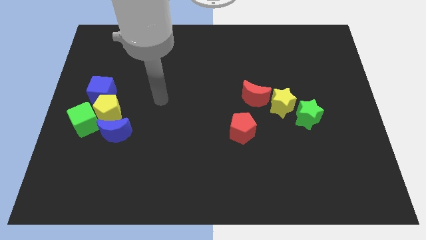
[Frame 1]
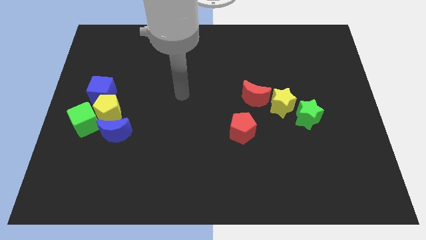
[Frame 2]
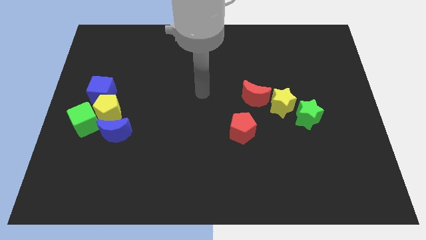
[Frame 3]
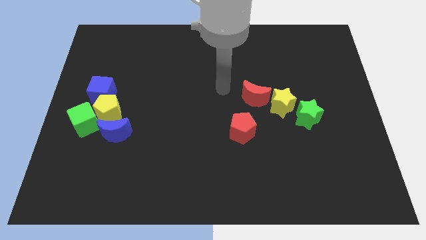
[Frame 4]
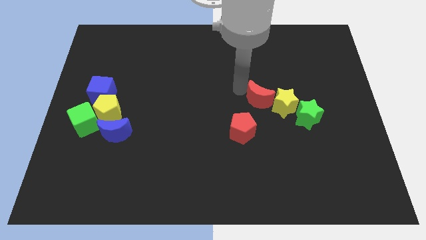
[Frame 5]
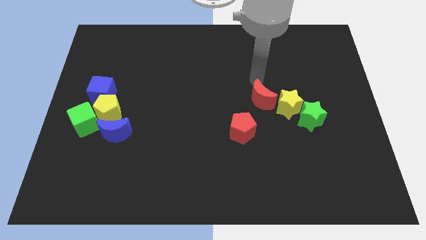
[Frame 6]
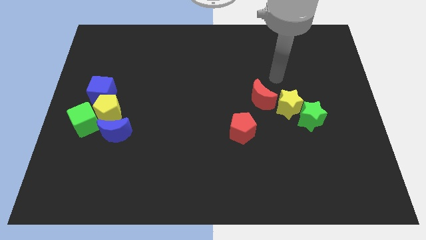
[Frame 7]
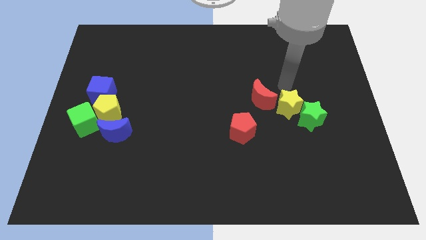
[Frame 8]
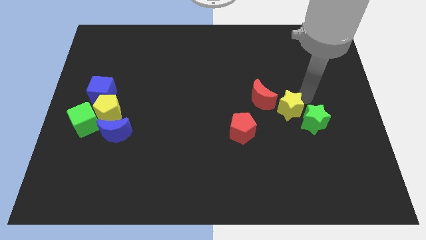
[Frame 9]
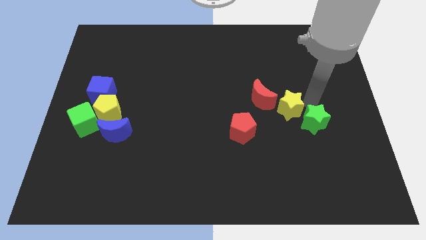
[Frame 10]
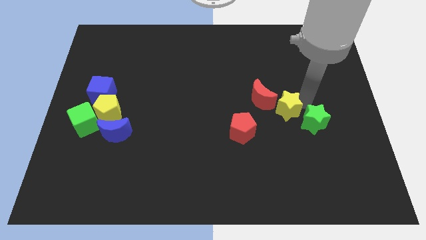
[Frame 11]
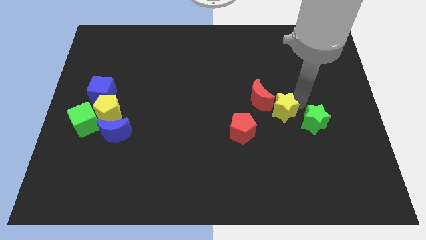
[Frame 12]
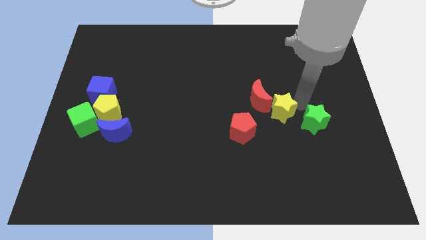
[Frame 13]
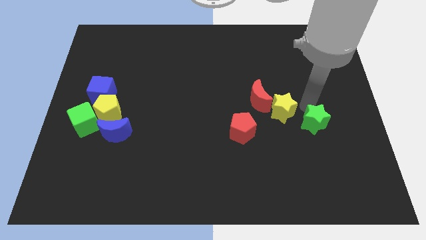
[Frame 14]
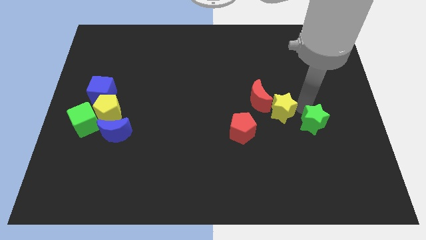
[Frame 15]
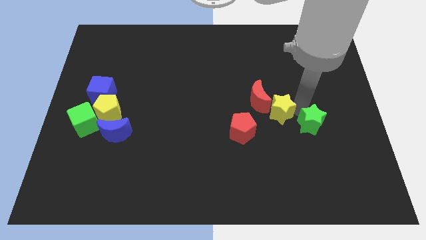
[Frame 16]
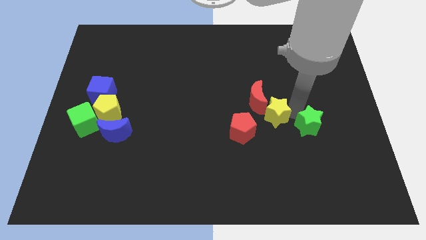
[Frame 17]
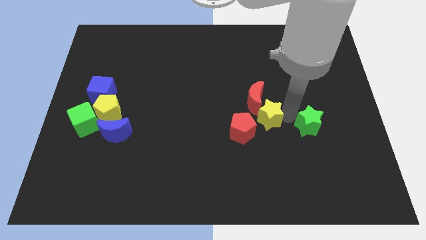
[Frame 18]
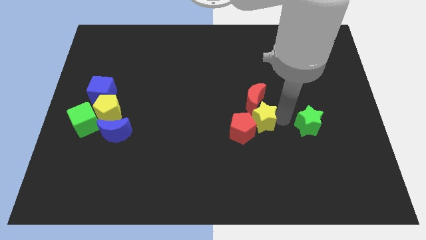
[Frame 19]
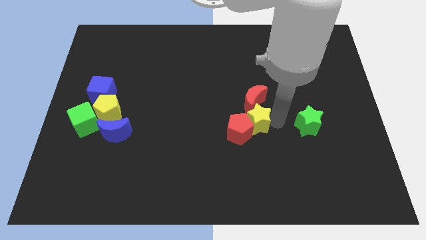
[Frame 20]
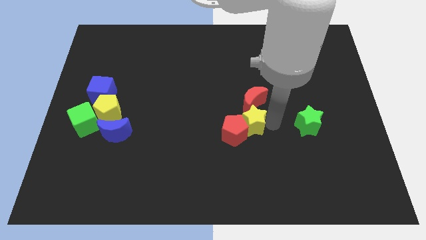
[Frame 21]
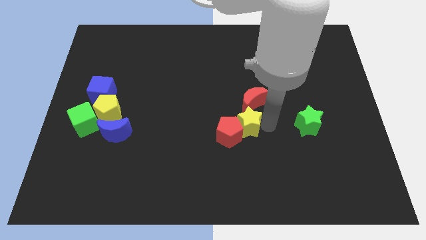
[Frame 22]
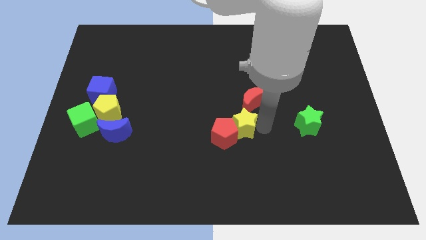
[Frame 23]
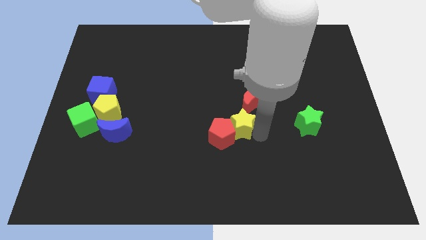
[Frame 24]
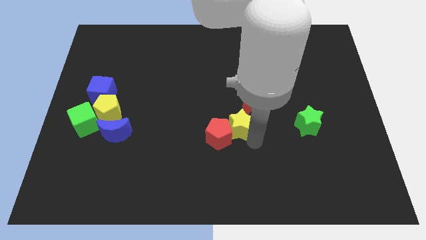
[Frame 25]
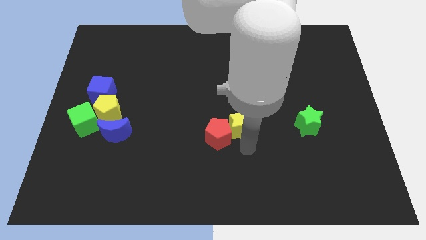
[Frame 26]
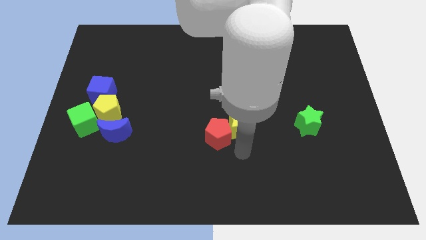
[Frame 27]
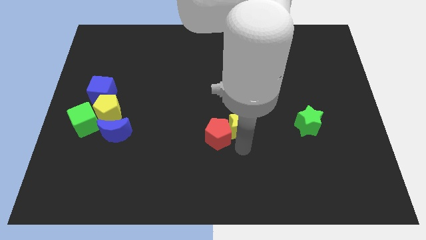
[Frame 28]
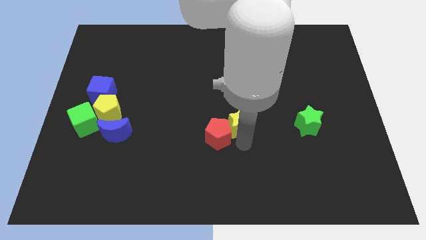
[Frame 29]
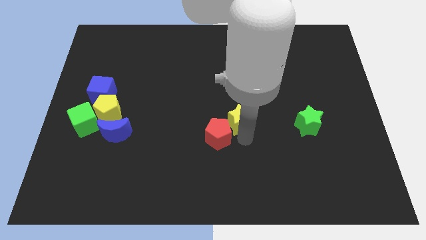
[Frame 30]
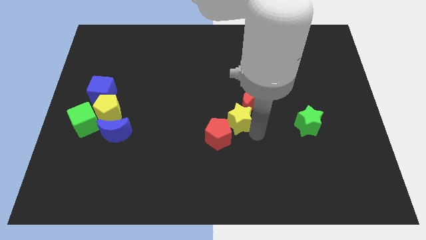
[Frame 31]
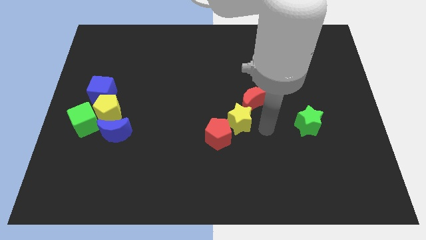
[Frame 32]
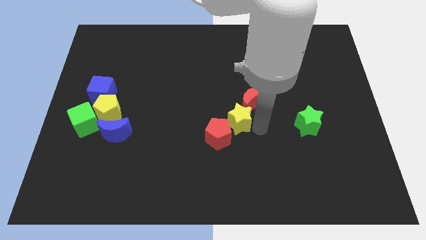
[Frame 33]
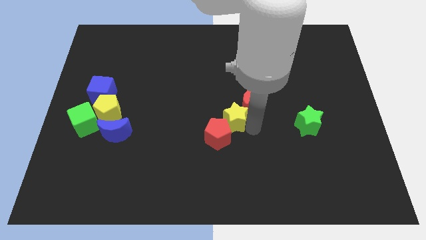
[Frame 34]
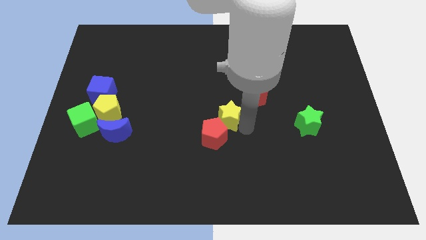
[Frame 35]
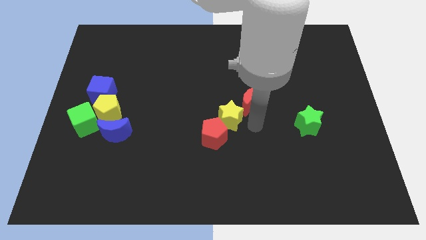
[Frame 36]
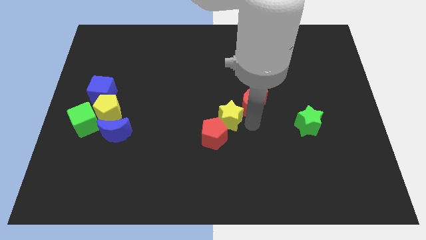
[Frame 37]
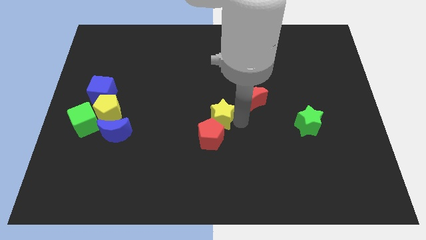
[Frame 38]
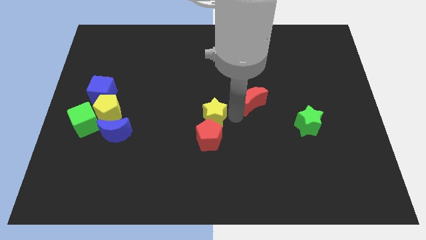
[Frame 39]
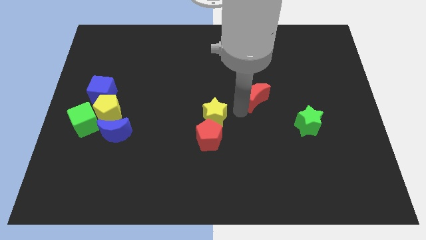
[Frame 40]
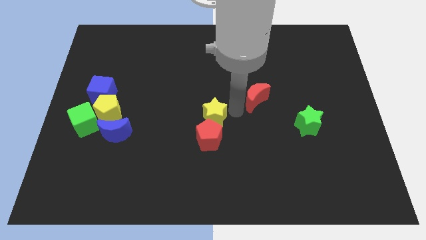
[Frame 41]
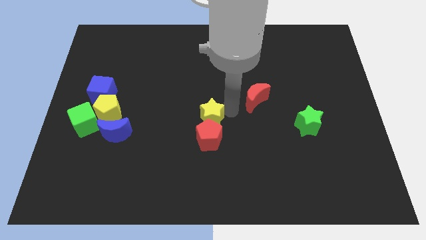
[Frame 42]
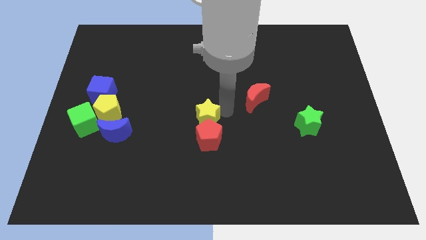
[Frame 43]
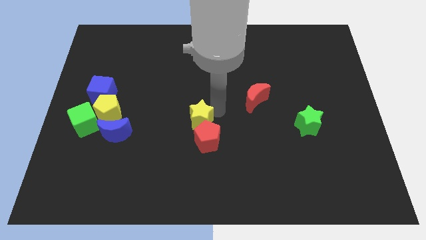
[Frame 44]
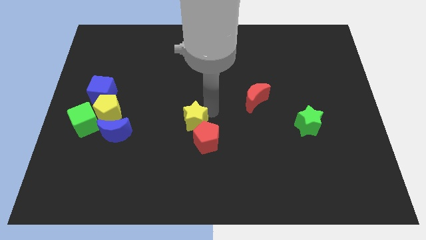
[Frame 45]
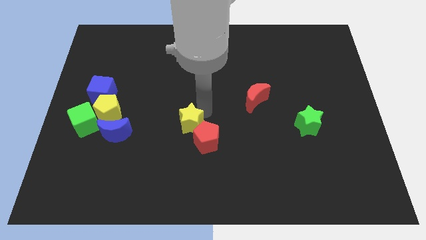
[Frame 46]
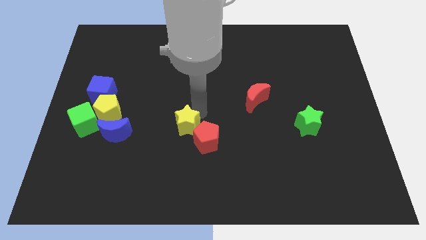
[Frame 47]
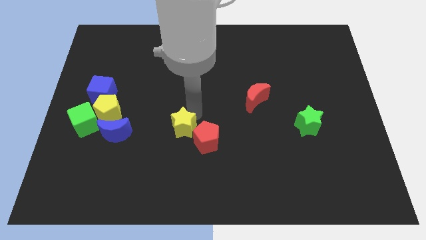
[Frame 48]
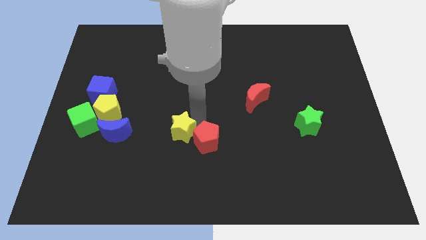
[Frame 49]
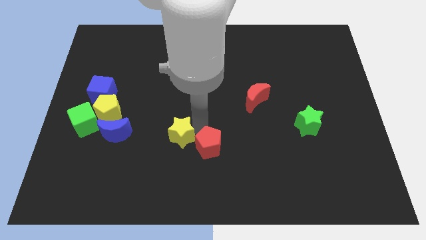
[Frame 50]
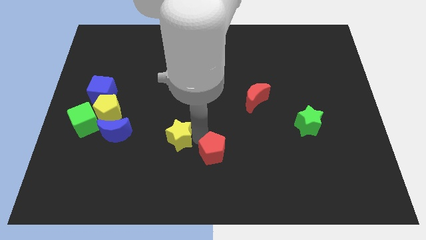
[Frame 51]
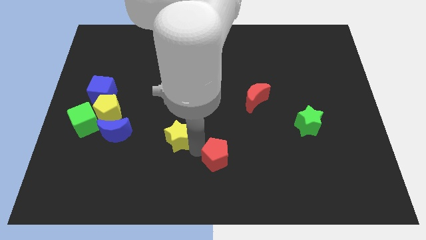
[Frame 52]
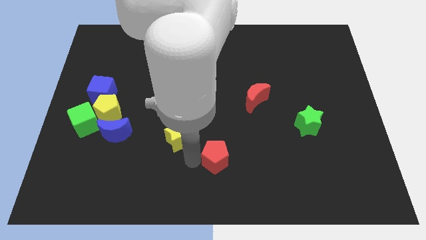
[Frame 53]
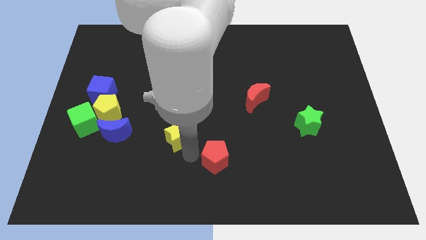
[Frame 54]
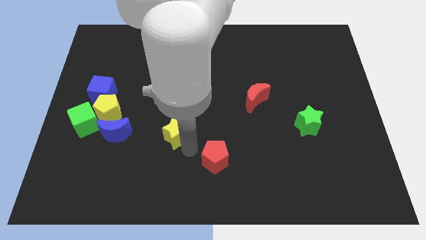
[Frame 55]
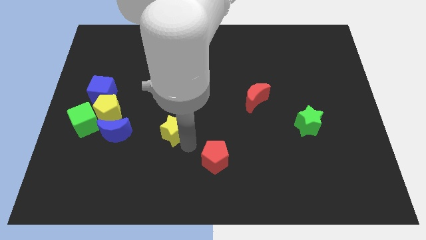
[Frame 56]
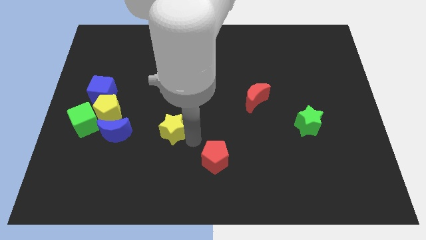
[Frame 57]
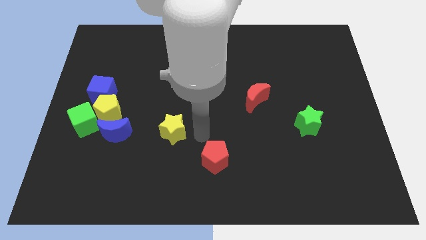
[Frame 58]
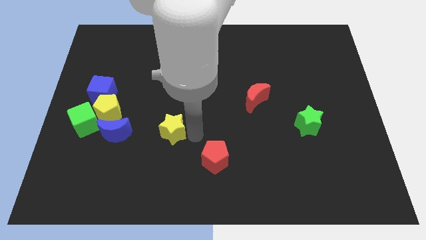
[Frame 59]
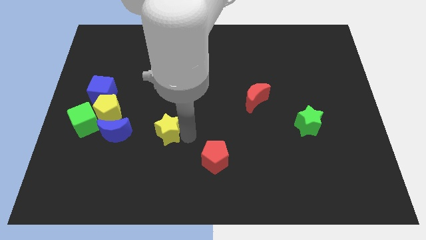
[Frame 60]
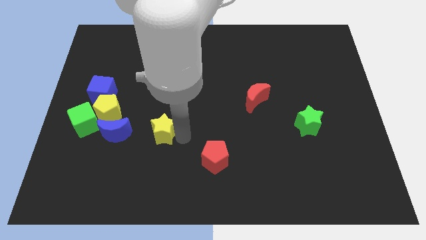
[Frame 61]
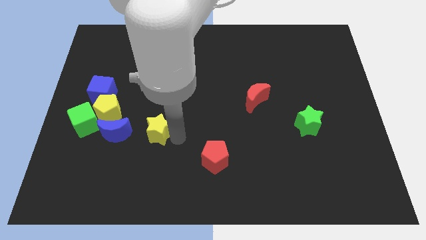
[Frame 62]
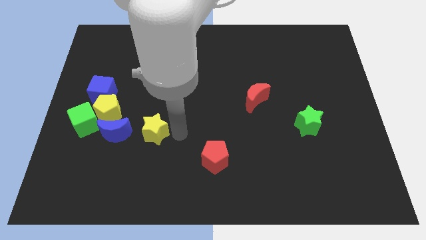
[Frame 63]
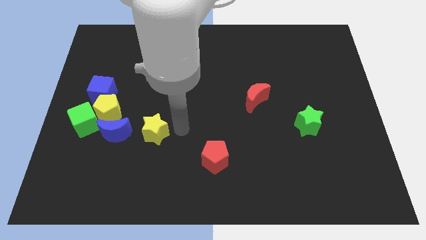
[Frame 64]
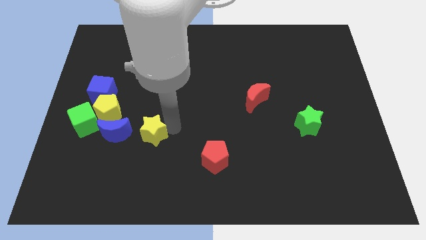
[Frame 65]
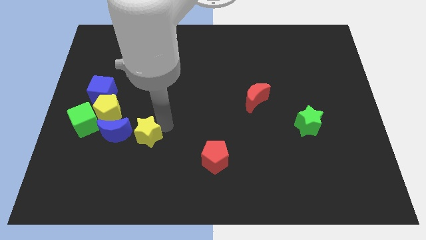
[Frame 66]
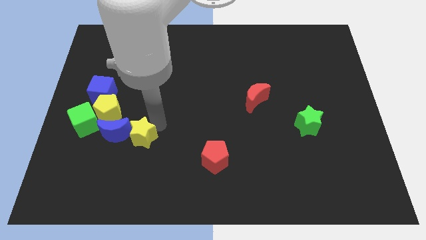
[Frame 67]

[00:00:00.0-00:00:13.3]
put the yellow star next to the blue moon
